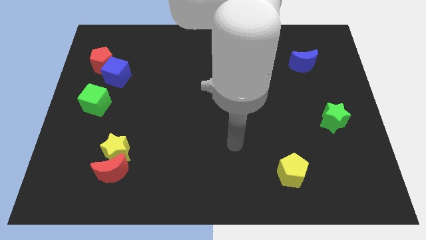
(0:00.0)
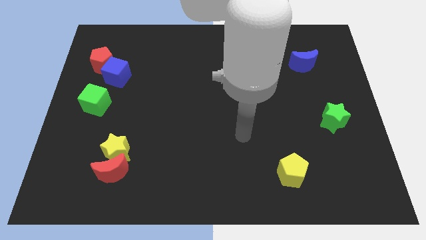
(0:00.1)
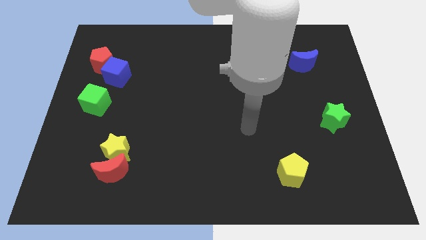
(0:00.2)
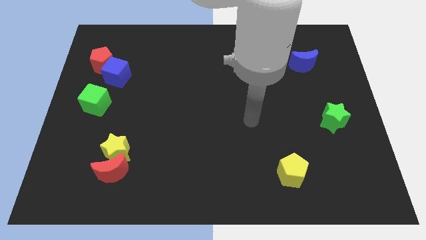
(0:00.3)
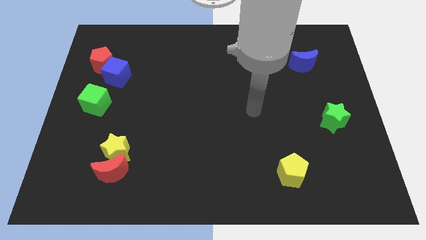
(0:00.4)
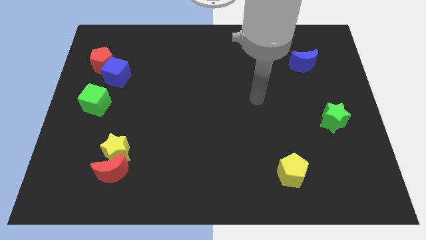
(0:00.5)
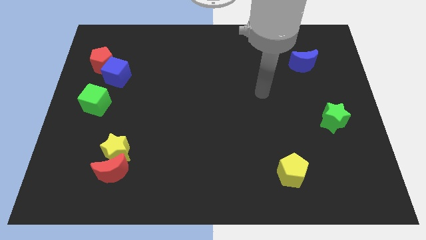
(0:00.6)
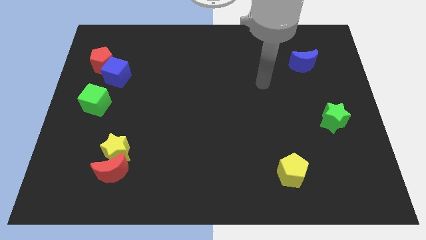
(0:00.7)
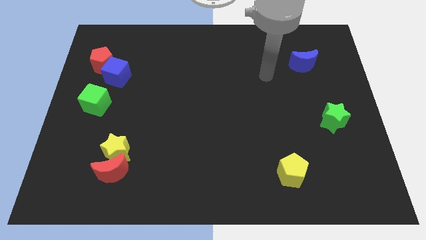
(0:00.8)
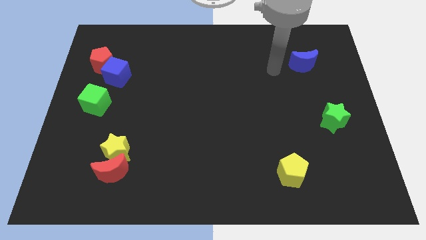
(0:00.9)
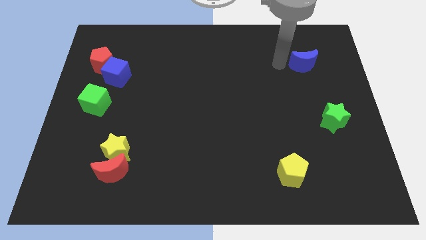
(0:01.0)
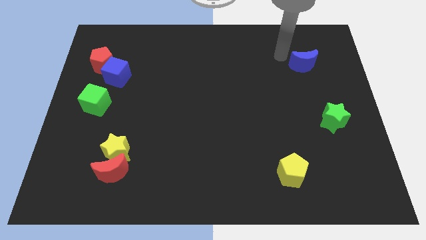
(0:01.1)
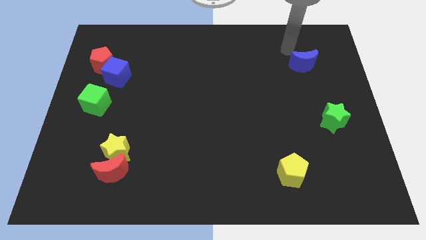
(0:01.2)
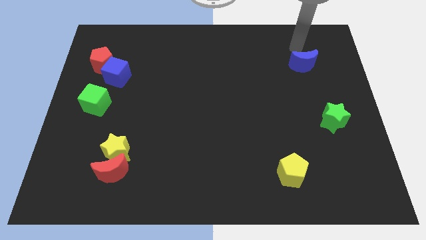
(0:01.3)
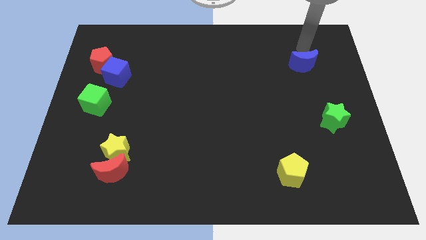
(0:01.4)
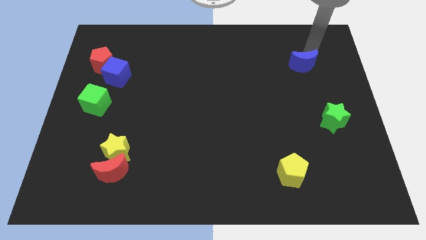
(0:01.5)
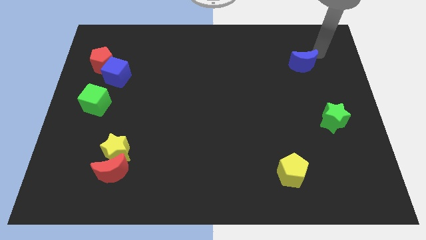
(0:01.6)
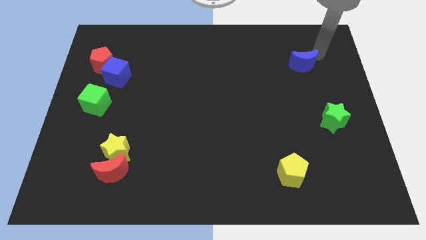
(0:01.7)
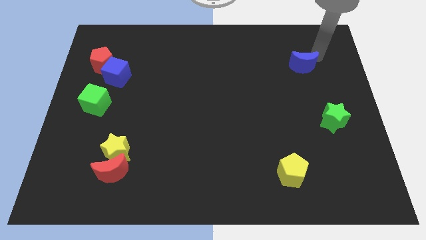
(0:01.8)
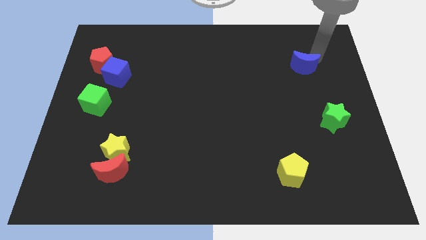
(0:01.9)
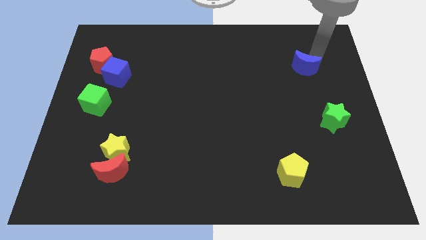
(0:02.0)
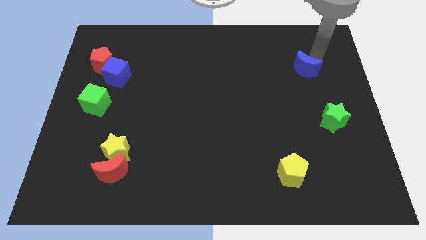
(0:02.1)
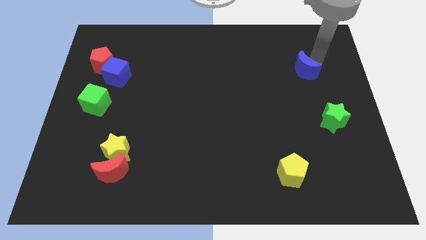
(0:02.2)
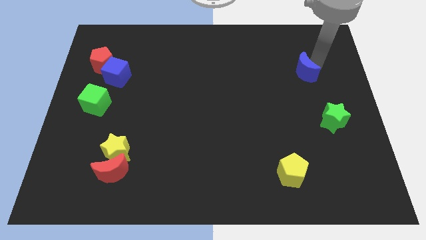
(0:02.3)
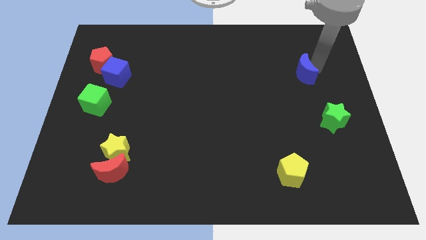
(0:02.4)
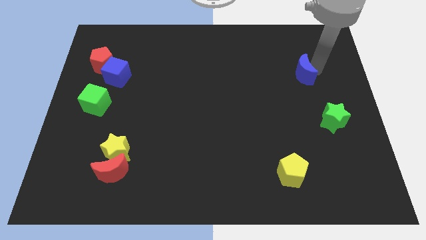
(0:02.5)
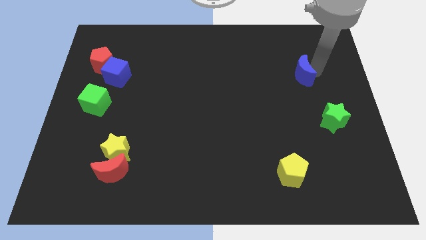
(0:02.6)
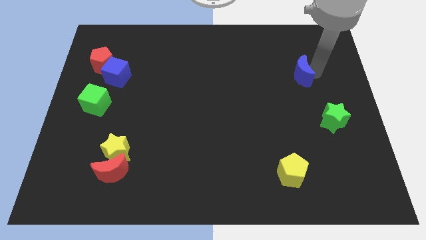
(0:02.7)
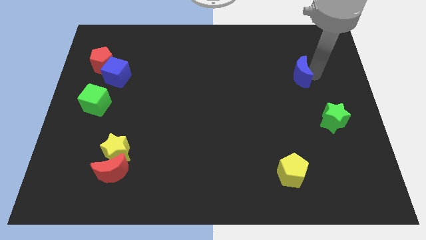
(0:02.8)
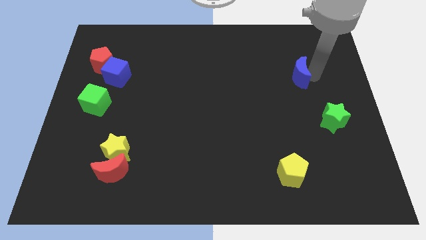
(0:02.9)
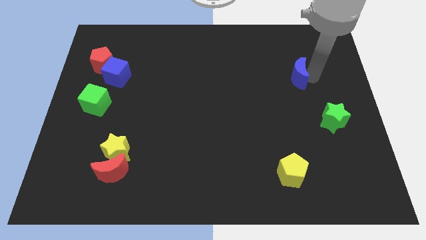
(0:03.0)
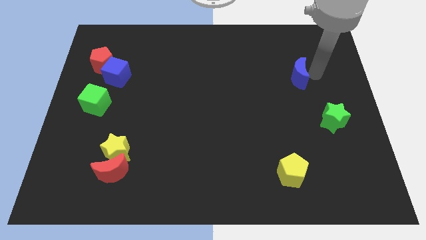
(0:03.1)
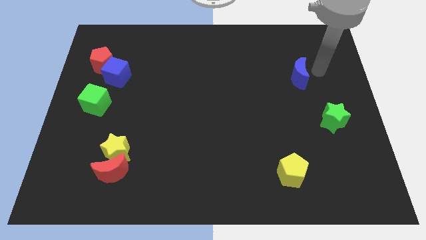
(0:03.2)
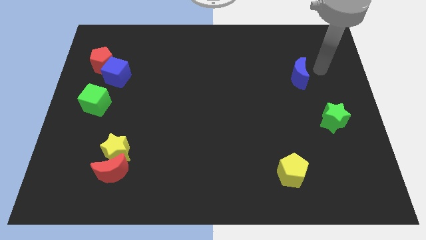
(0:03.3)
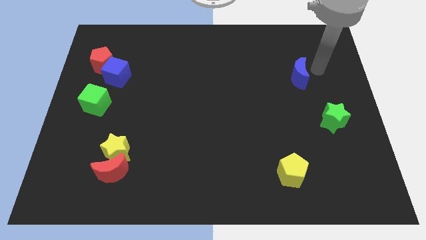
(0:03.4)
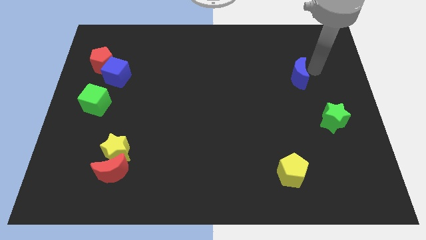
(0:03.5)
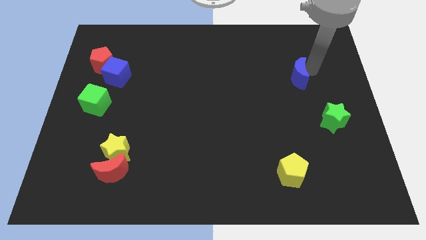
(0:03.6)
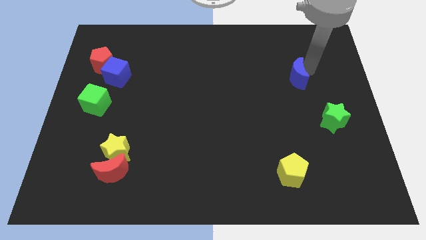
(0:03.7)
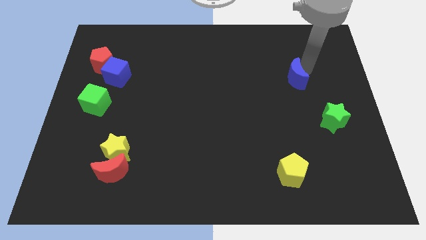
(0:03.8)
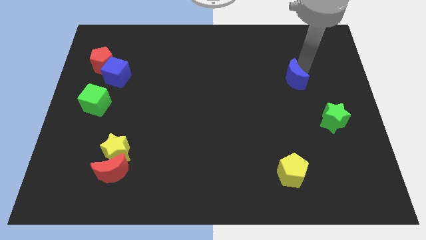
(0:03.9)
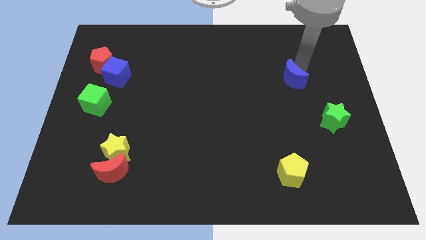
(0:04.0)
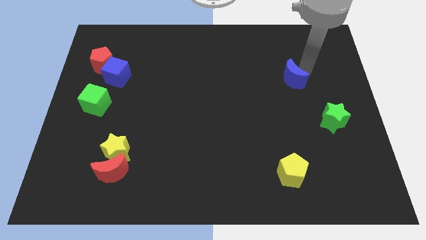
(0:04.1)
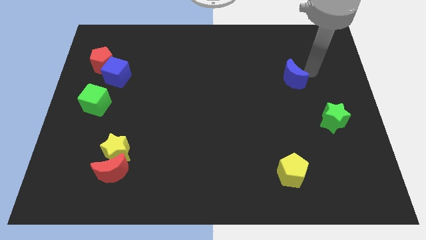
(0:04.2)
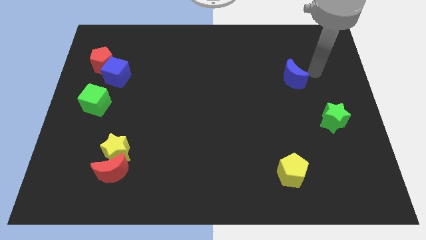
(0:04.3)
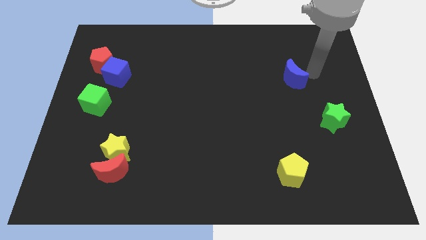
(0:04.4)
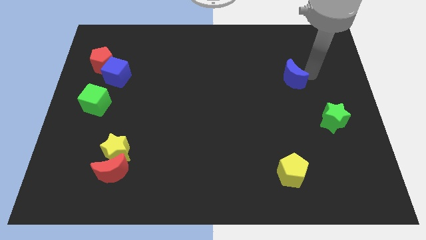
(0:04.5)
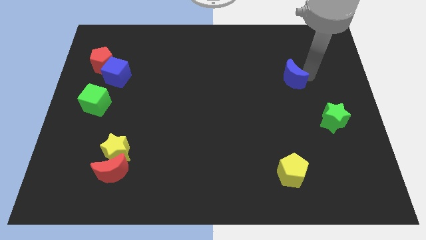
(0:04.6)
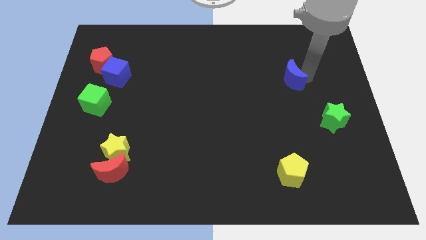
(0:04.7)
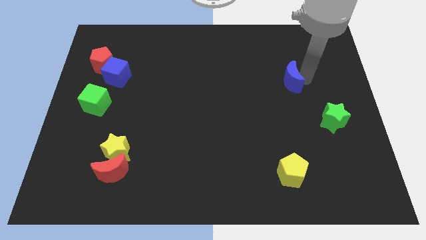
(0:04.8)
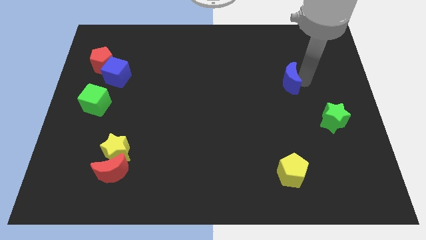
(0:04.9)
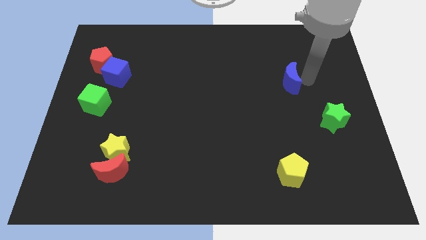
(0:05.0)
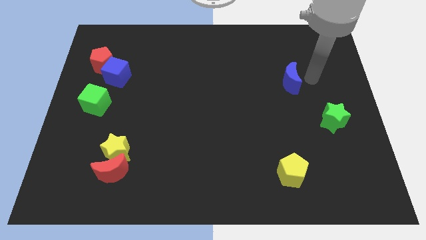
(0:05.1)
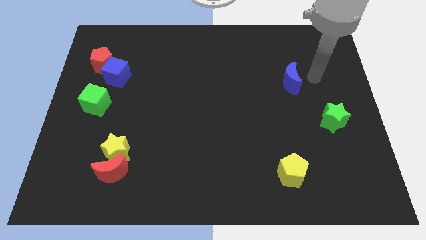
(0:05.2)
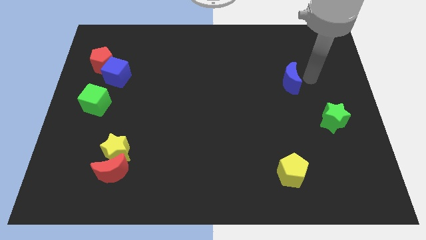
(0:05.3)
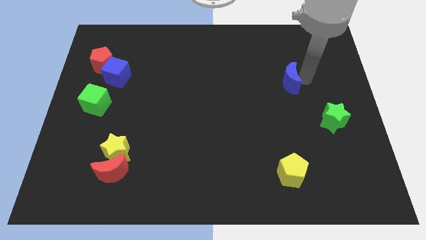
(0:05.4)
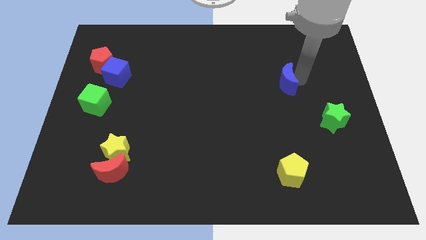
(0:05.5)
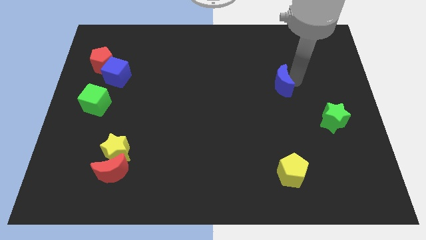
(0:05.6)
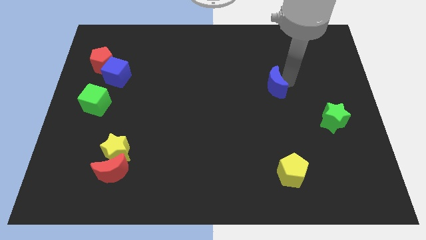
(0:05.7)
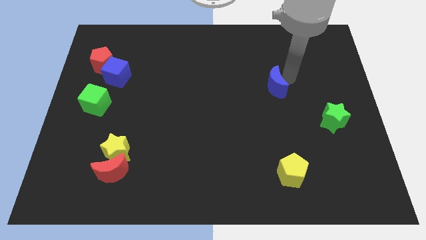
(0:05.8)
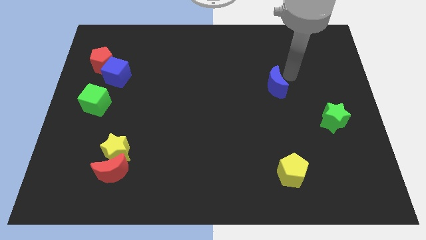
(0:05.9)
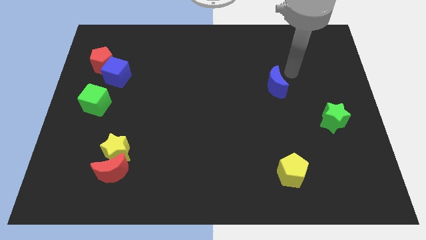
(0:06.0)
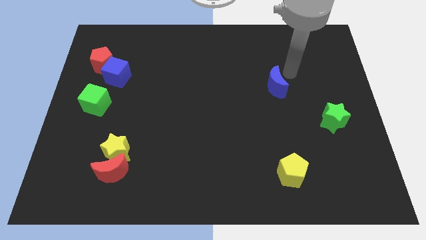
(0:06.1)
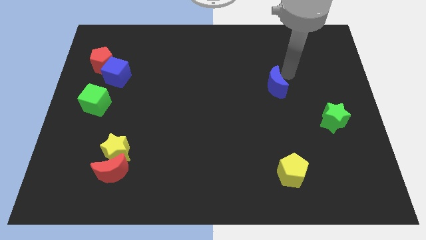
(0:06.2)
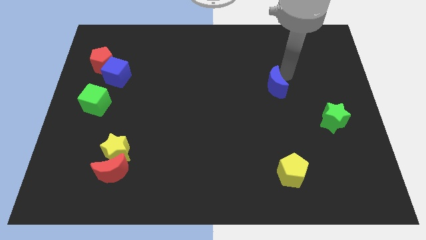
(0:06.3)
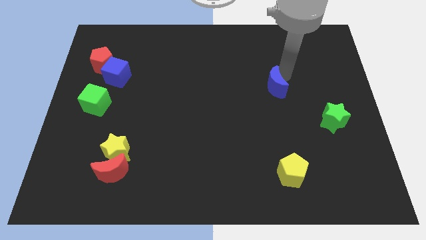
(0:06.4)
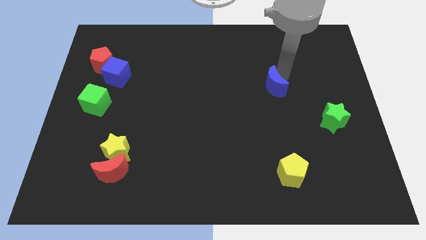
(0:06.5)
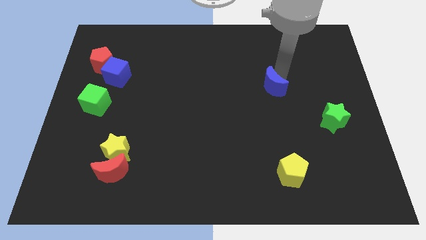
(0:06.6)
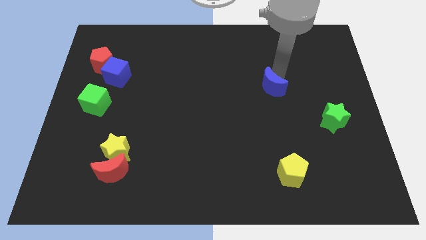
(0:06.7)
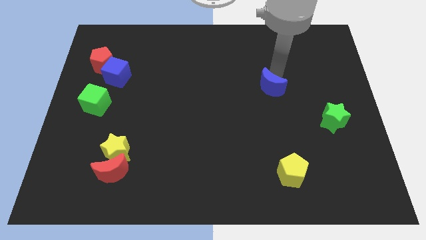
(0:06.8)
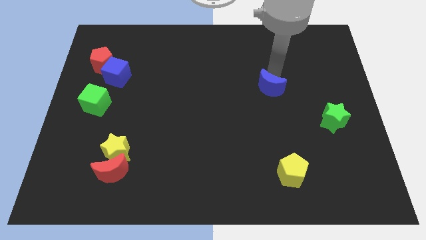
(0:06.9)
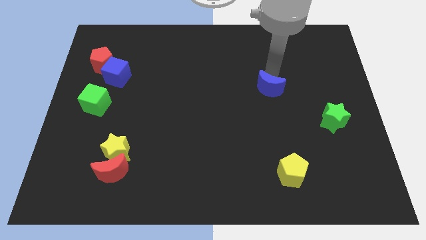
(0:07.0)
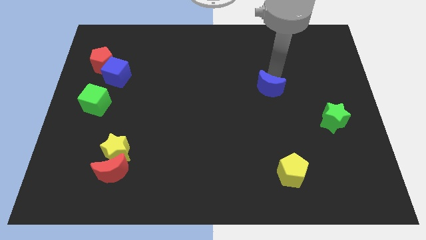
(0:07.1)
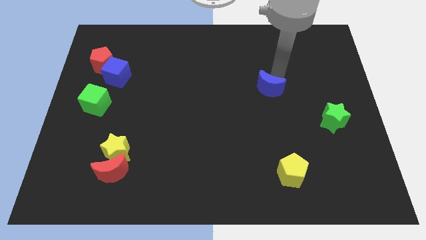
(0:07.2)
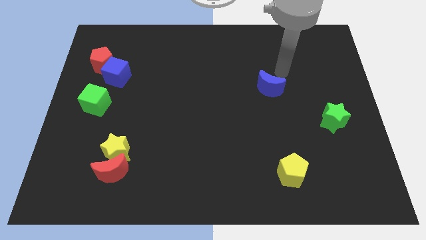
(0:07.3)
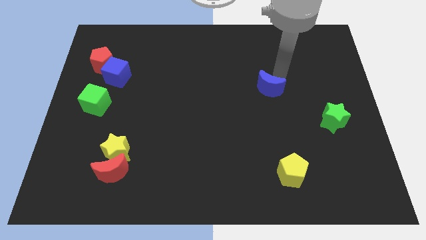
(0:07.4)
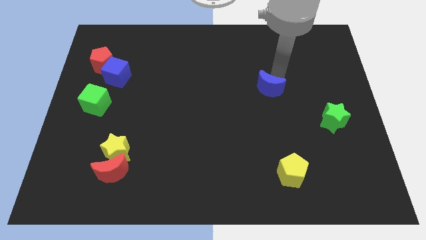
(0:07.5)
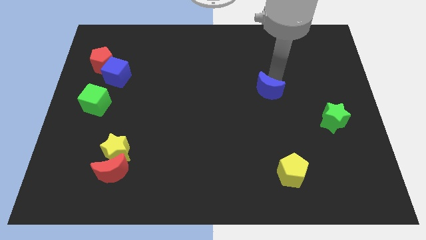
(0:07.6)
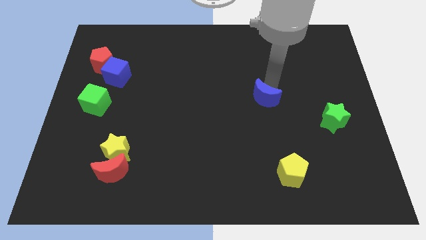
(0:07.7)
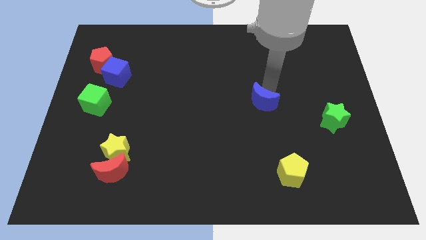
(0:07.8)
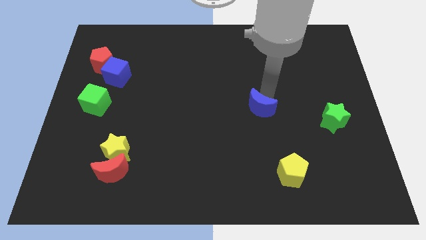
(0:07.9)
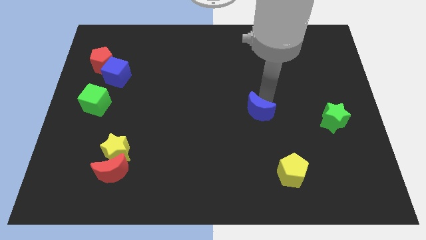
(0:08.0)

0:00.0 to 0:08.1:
push the blue moon diagonally down and to the left
